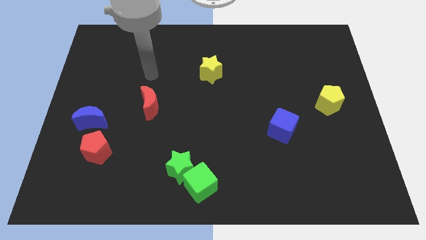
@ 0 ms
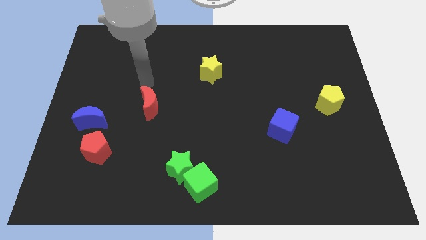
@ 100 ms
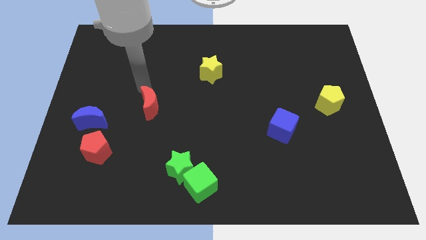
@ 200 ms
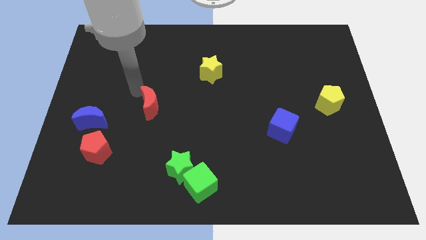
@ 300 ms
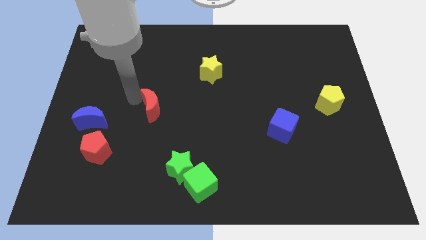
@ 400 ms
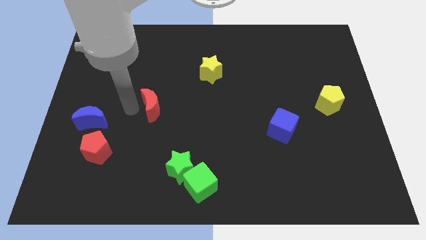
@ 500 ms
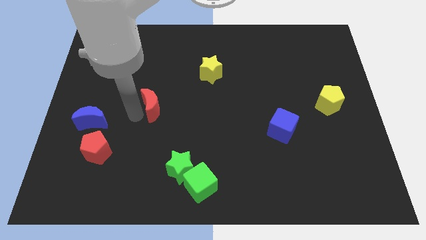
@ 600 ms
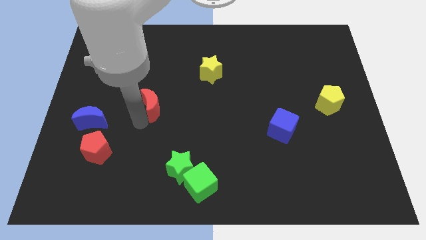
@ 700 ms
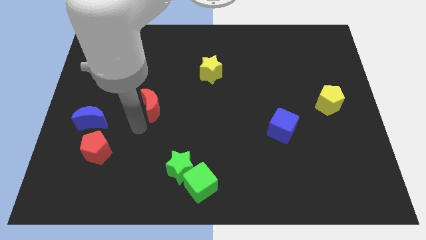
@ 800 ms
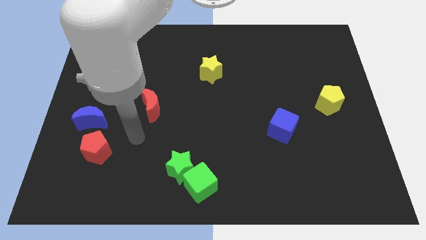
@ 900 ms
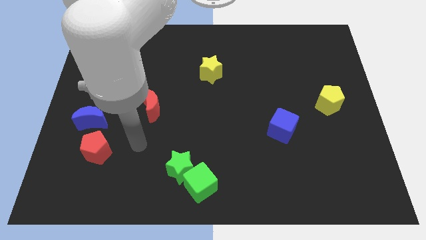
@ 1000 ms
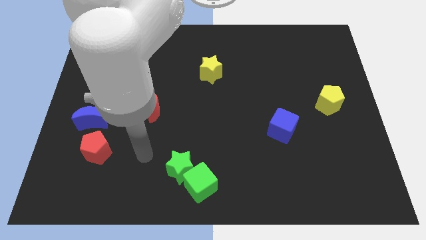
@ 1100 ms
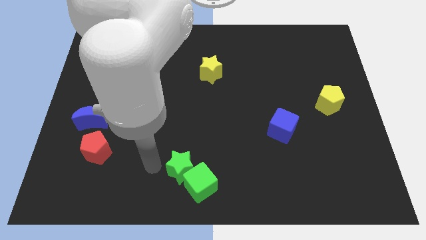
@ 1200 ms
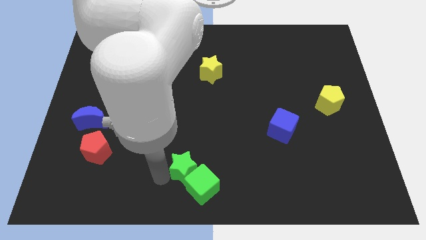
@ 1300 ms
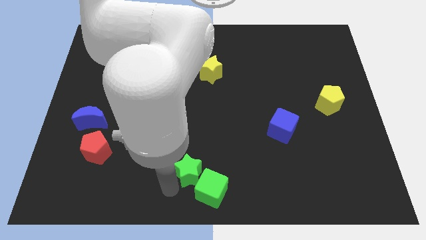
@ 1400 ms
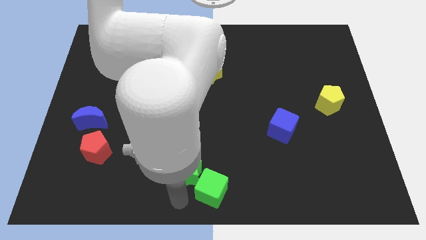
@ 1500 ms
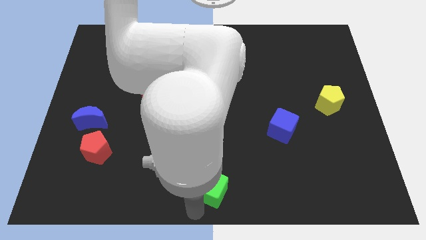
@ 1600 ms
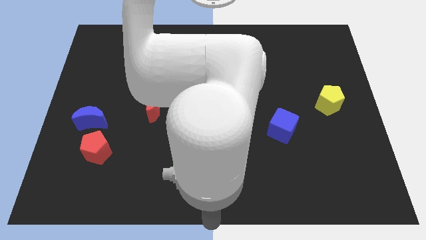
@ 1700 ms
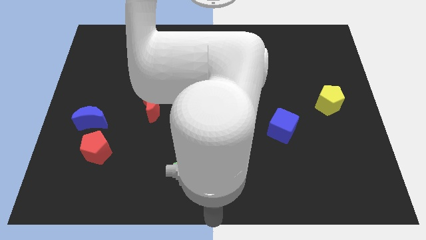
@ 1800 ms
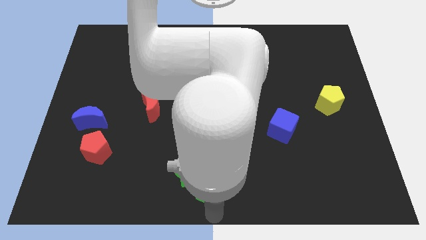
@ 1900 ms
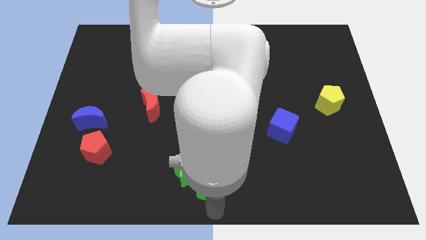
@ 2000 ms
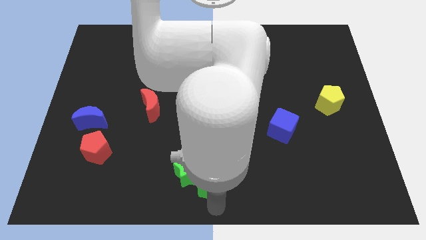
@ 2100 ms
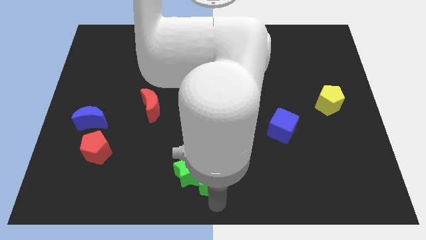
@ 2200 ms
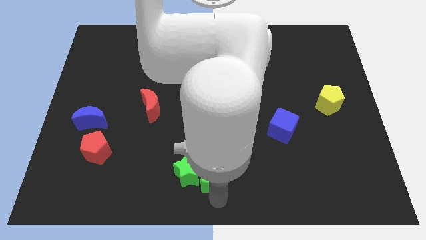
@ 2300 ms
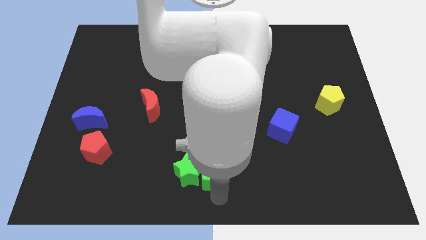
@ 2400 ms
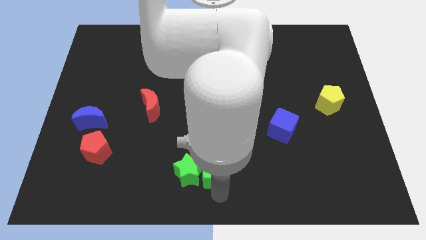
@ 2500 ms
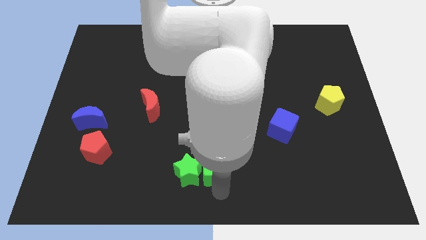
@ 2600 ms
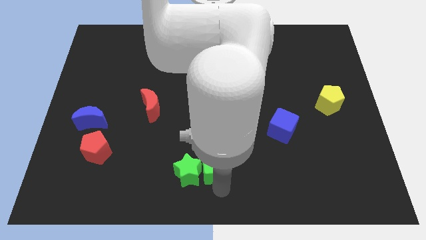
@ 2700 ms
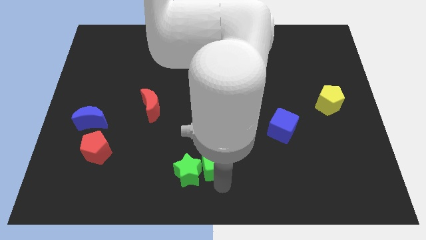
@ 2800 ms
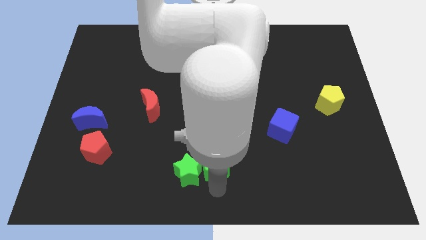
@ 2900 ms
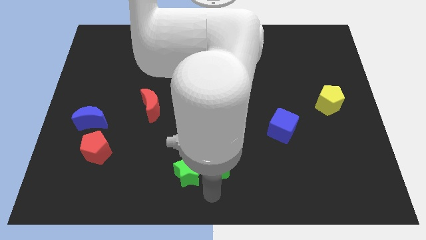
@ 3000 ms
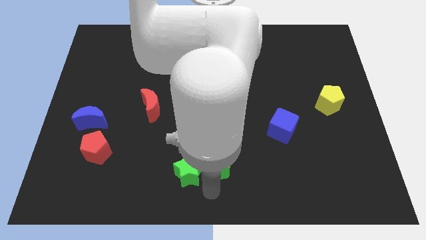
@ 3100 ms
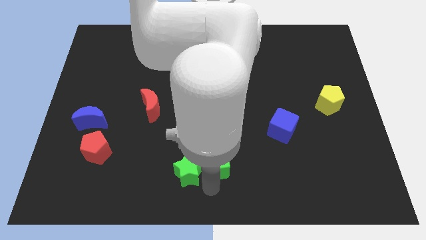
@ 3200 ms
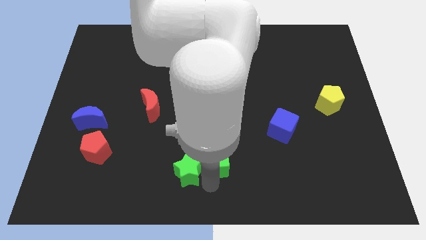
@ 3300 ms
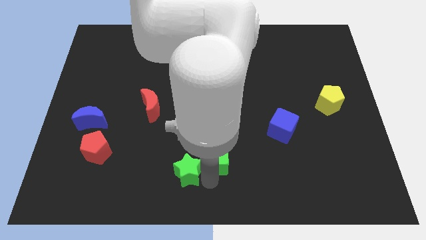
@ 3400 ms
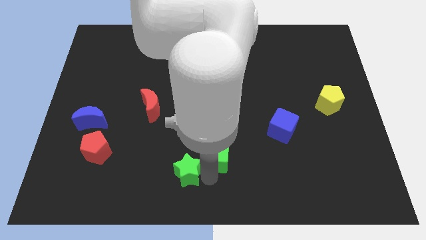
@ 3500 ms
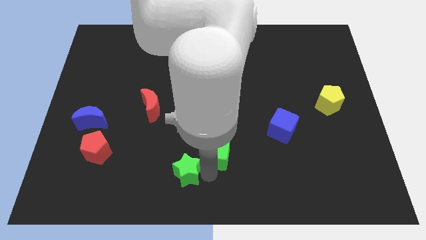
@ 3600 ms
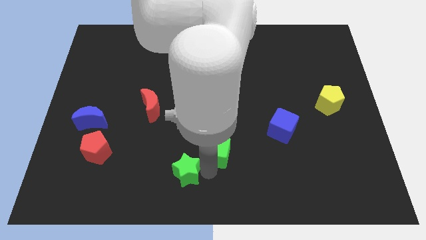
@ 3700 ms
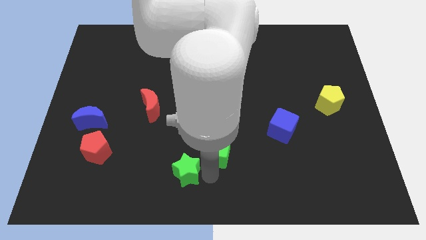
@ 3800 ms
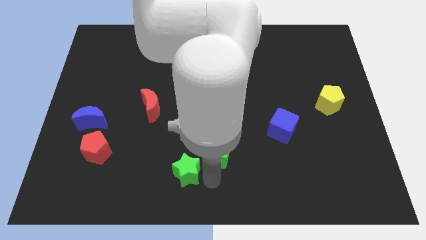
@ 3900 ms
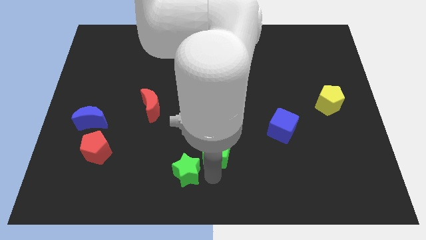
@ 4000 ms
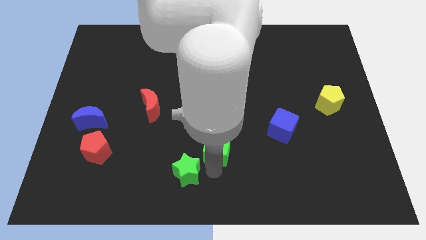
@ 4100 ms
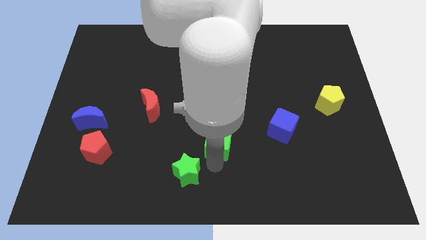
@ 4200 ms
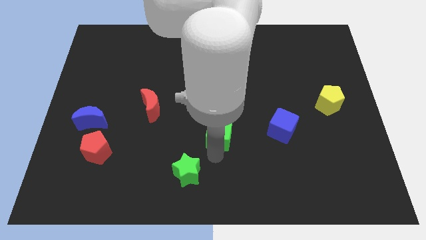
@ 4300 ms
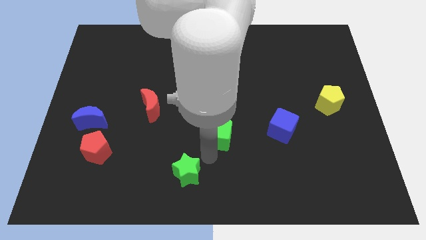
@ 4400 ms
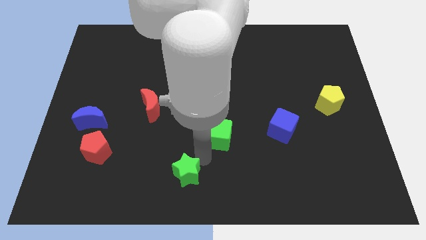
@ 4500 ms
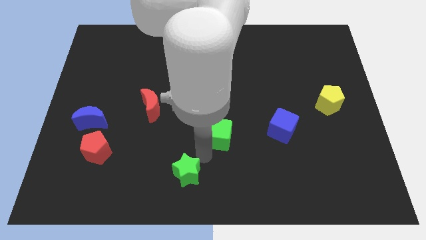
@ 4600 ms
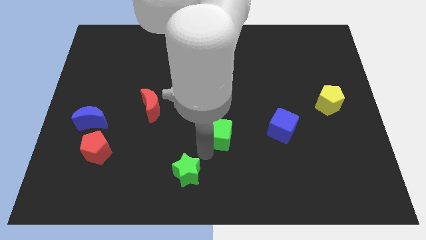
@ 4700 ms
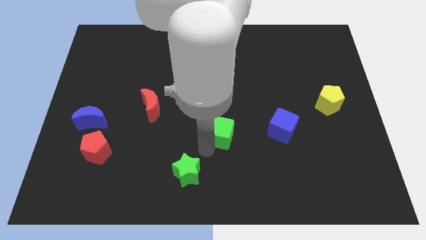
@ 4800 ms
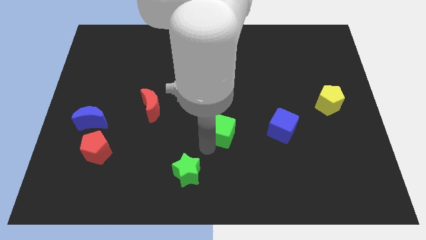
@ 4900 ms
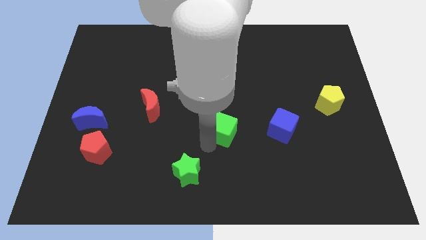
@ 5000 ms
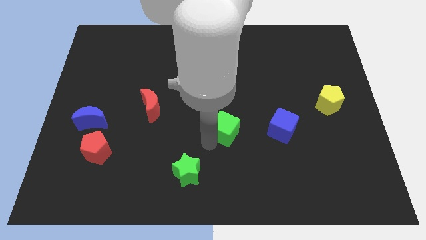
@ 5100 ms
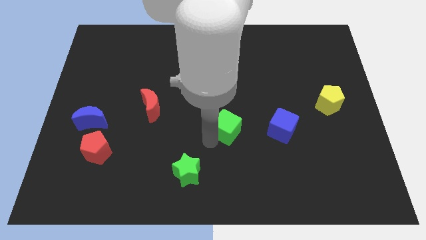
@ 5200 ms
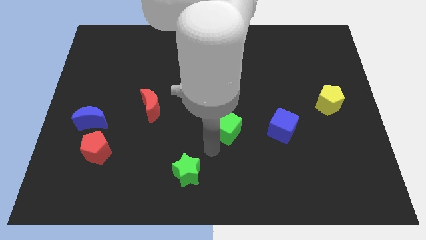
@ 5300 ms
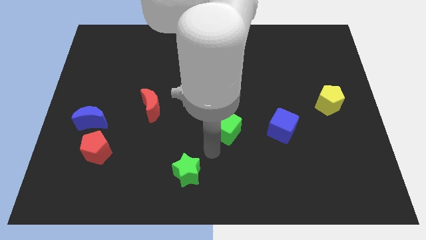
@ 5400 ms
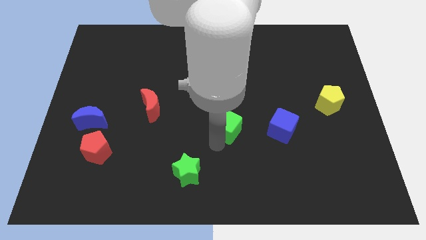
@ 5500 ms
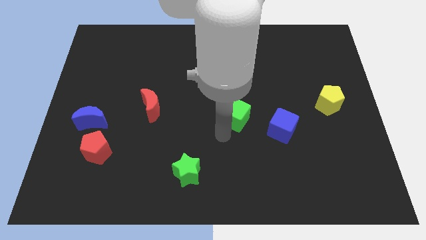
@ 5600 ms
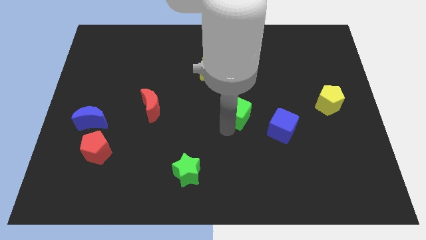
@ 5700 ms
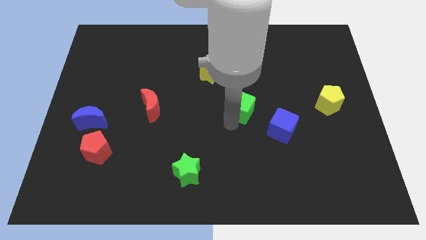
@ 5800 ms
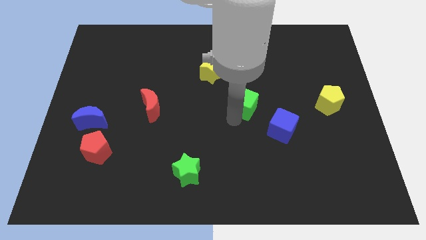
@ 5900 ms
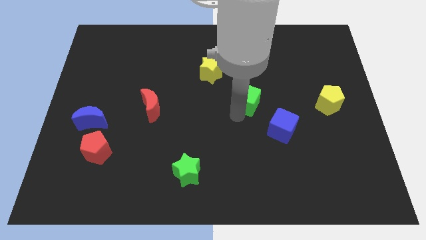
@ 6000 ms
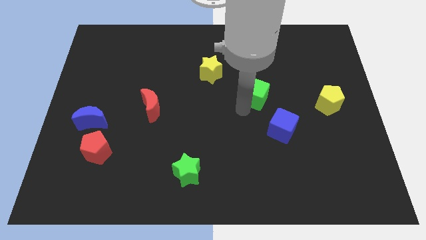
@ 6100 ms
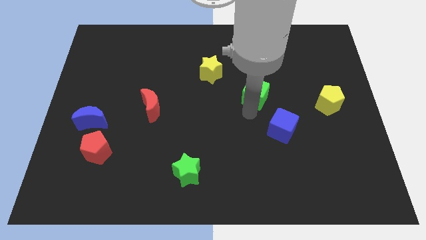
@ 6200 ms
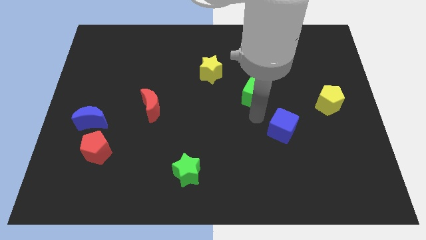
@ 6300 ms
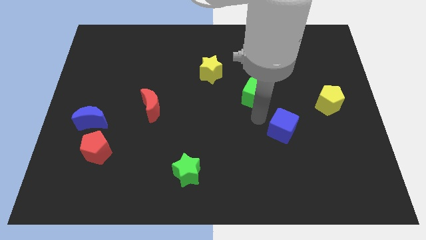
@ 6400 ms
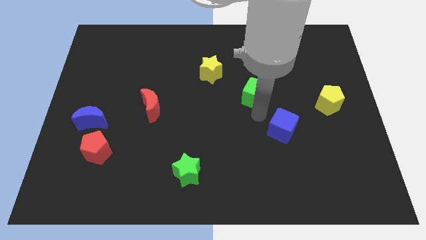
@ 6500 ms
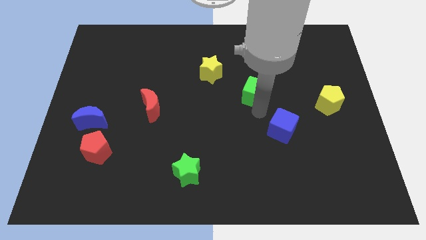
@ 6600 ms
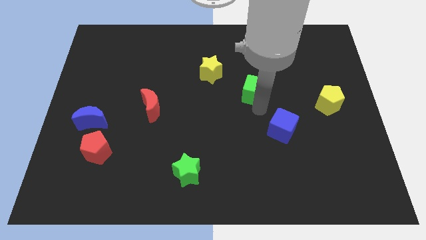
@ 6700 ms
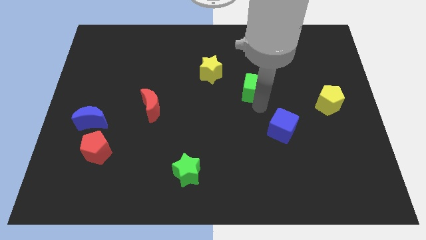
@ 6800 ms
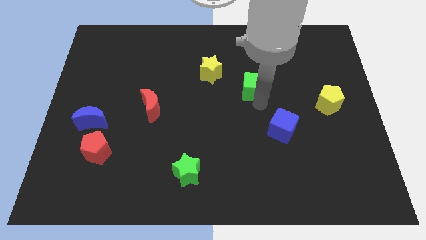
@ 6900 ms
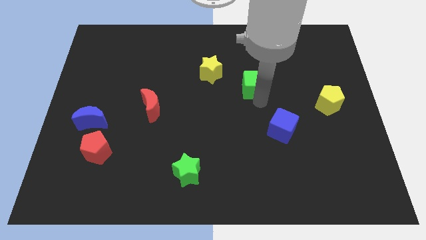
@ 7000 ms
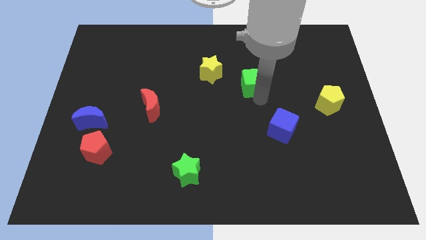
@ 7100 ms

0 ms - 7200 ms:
move the green cube just right of the yellow star

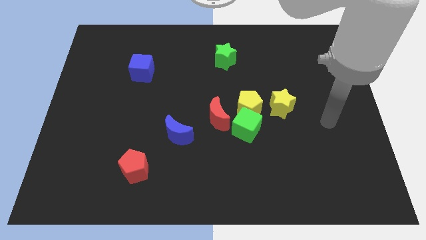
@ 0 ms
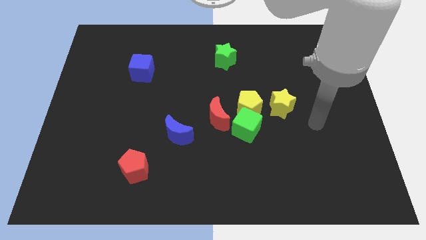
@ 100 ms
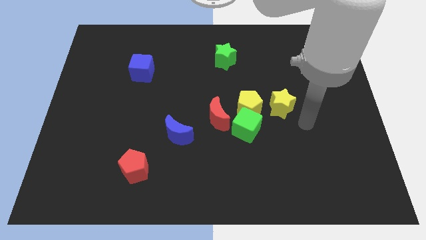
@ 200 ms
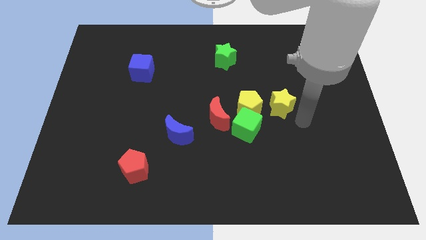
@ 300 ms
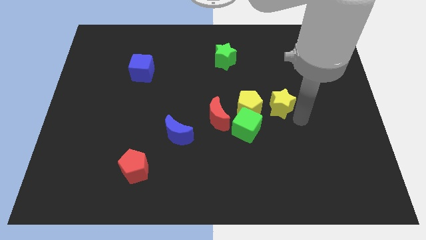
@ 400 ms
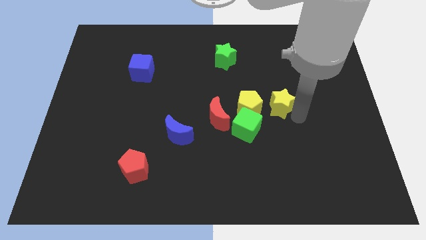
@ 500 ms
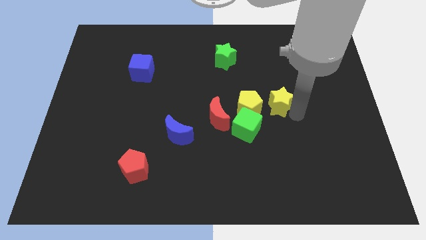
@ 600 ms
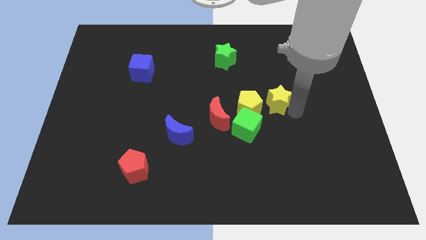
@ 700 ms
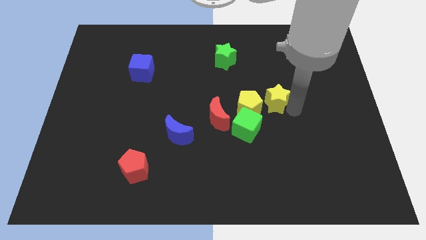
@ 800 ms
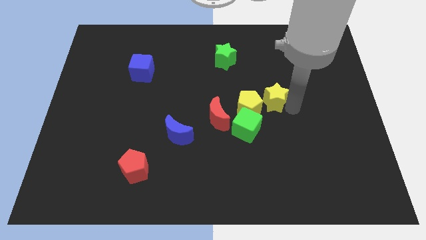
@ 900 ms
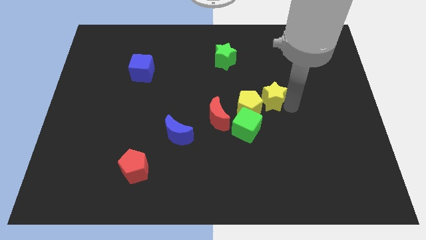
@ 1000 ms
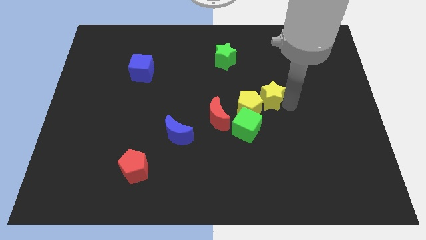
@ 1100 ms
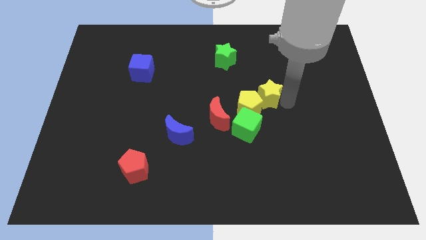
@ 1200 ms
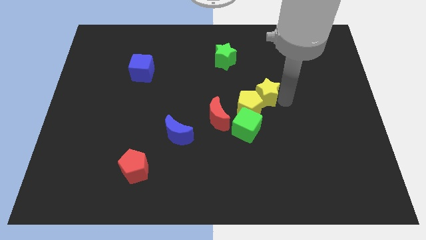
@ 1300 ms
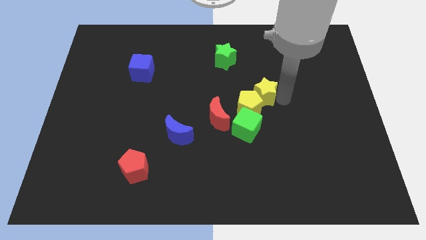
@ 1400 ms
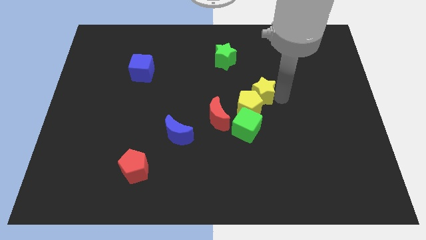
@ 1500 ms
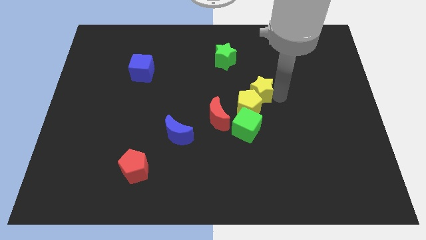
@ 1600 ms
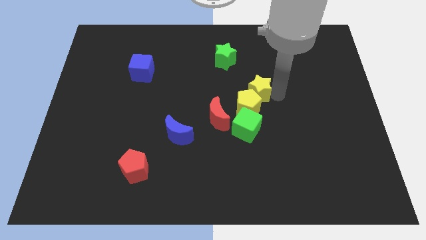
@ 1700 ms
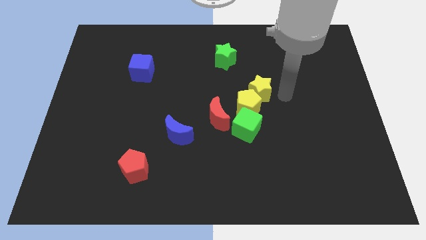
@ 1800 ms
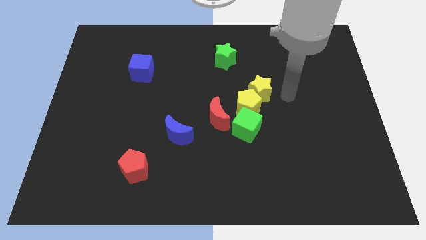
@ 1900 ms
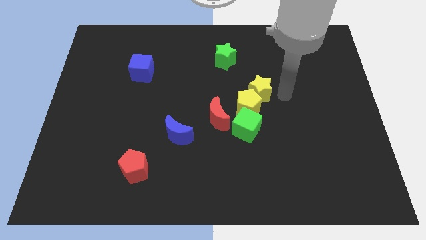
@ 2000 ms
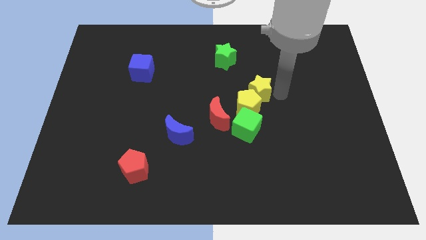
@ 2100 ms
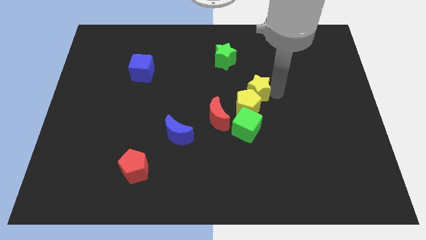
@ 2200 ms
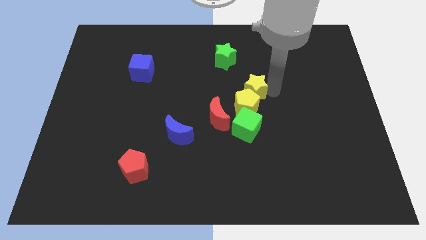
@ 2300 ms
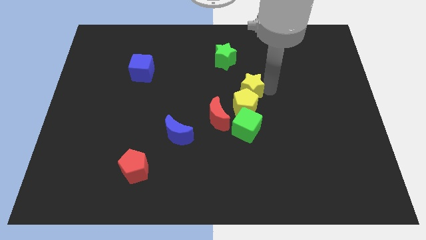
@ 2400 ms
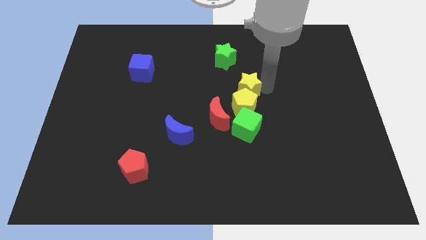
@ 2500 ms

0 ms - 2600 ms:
put the yellow star to the top left of the yellow pentagon
